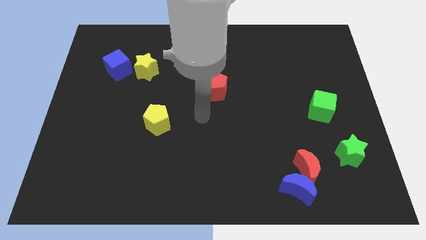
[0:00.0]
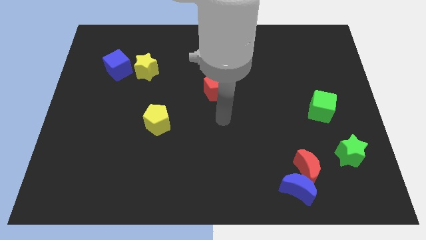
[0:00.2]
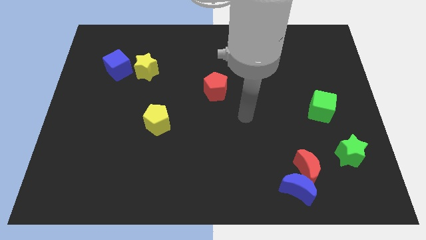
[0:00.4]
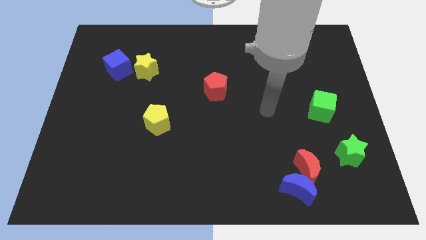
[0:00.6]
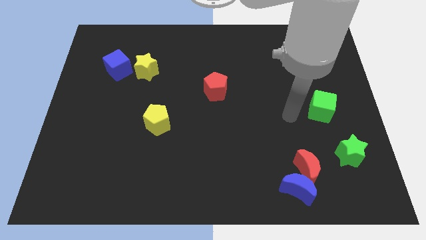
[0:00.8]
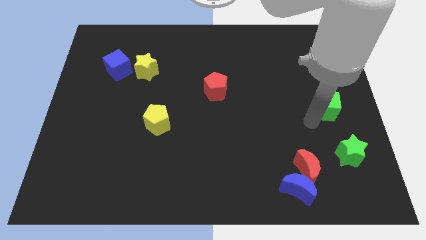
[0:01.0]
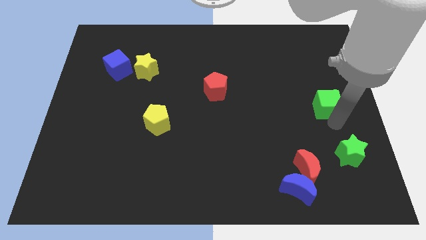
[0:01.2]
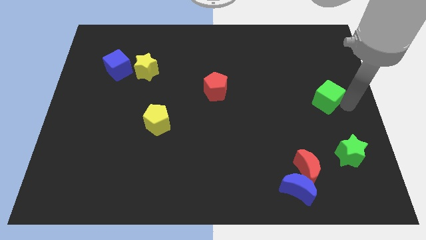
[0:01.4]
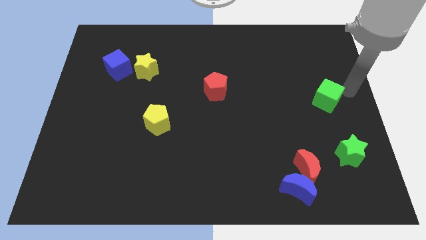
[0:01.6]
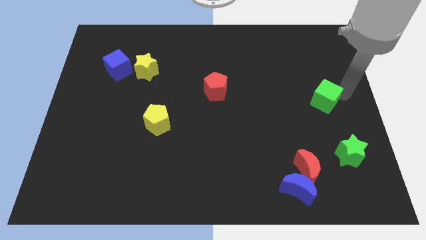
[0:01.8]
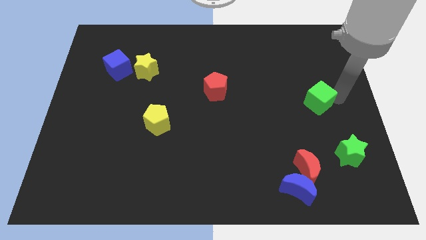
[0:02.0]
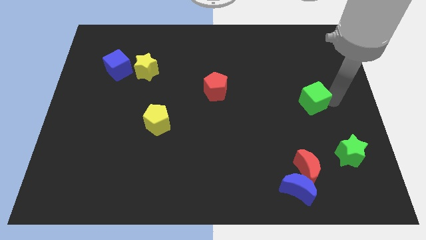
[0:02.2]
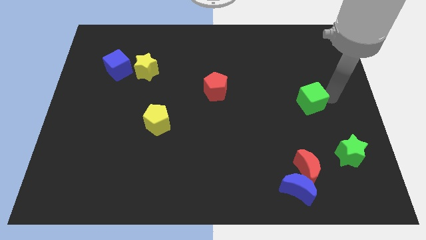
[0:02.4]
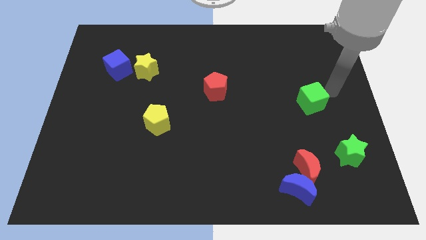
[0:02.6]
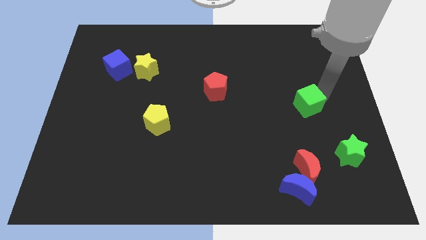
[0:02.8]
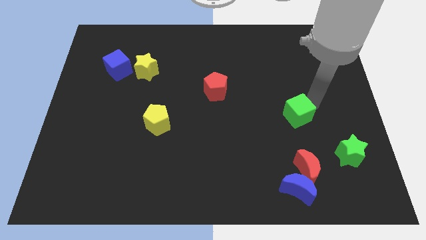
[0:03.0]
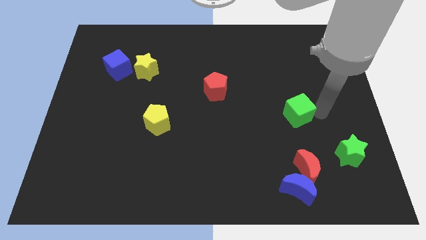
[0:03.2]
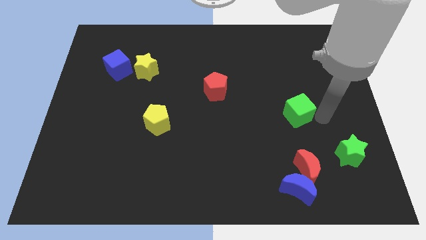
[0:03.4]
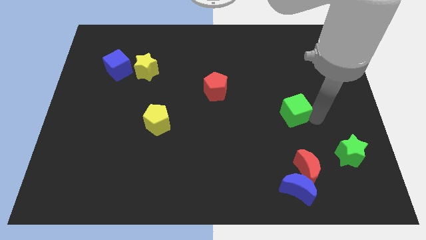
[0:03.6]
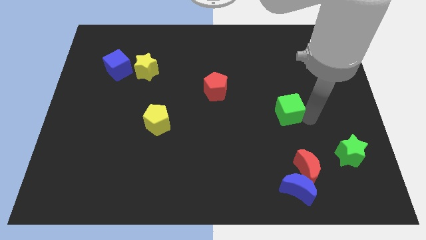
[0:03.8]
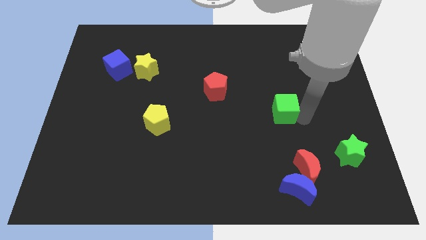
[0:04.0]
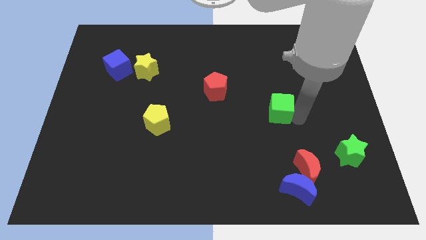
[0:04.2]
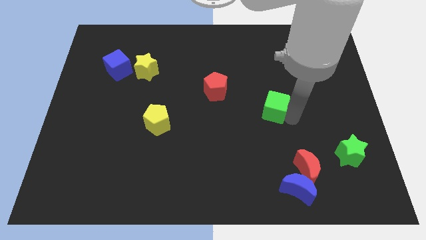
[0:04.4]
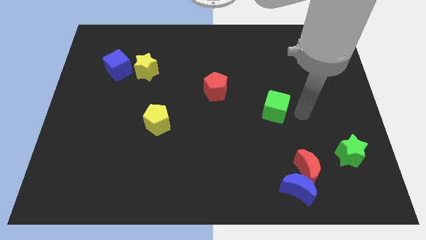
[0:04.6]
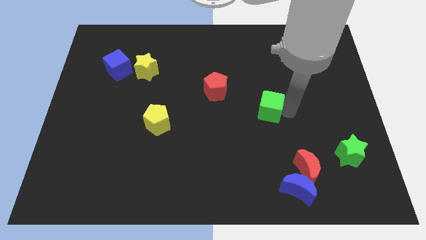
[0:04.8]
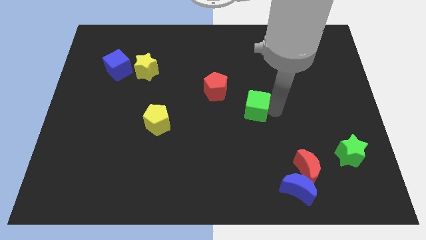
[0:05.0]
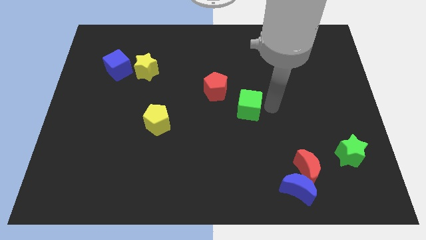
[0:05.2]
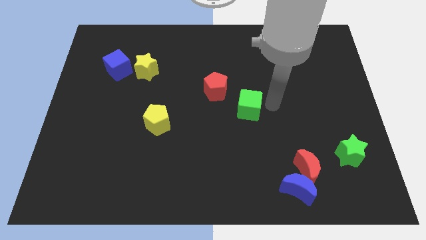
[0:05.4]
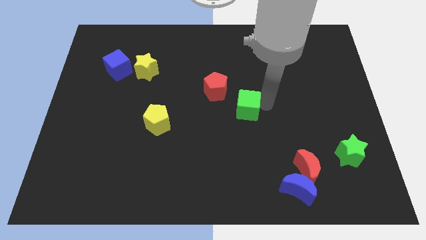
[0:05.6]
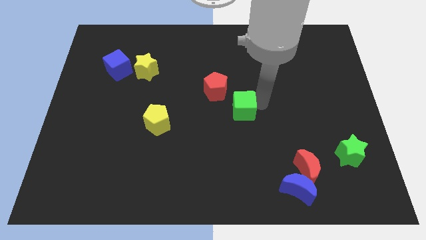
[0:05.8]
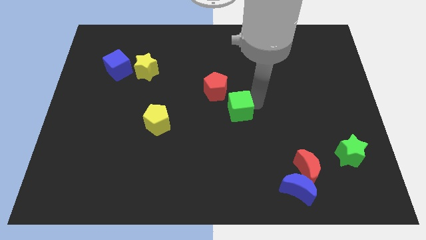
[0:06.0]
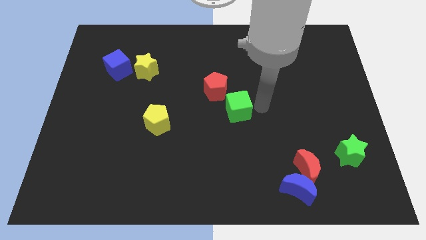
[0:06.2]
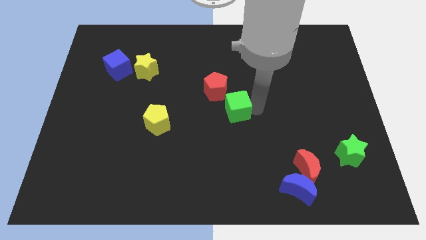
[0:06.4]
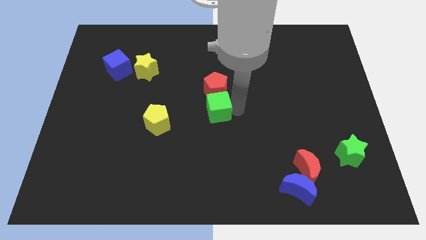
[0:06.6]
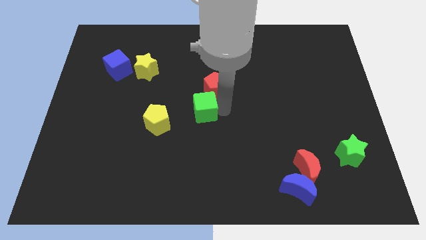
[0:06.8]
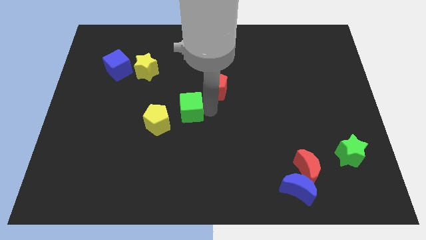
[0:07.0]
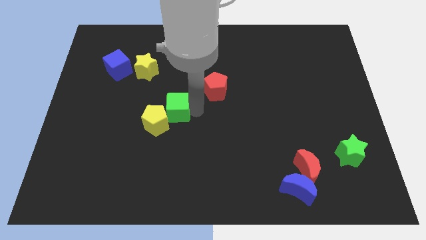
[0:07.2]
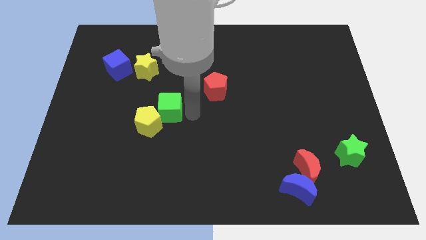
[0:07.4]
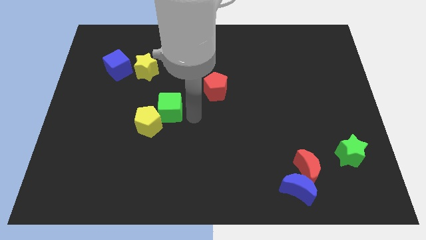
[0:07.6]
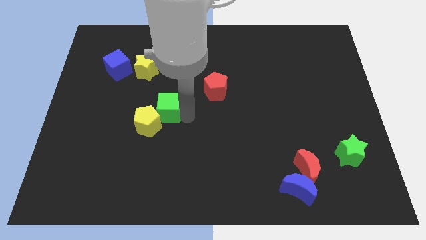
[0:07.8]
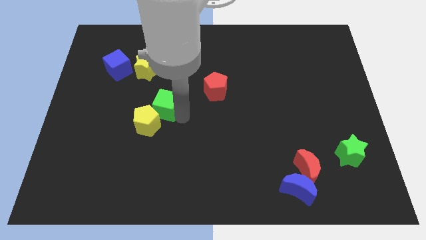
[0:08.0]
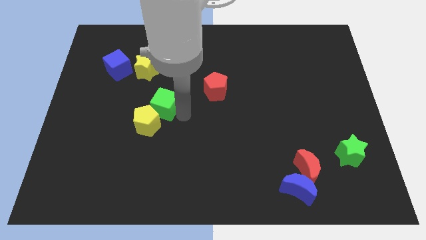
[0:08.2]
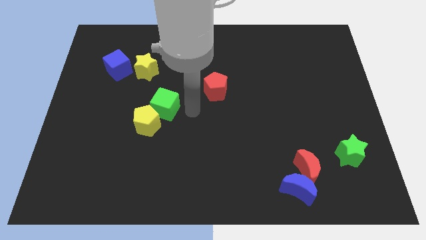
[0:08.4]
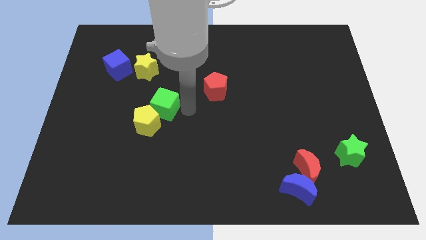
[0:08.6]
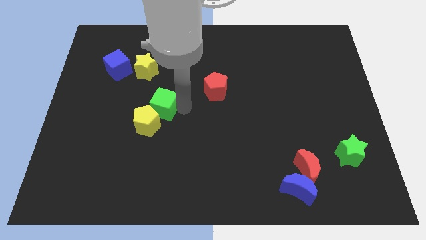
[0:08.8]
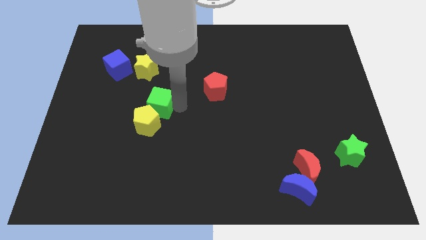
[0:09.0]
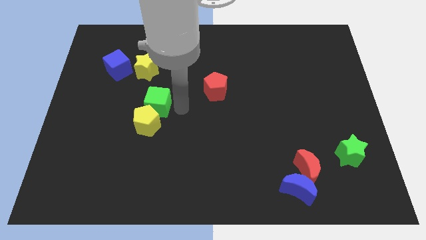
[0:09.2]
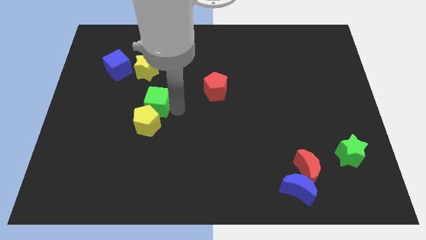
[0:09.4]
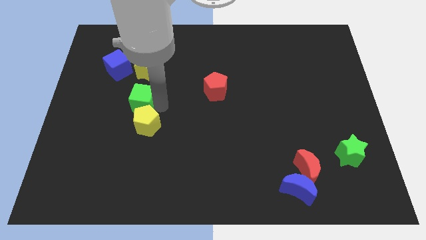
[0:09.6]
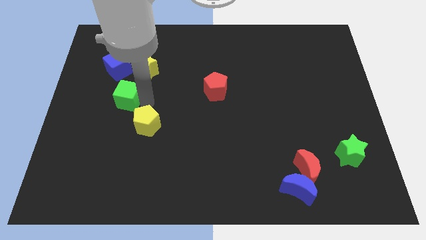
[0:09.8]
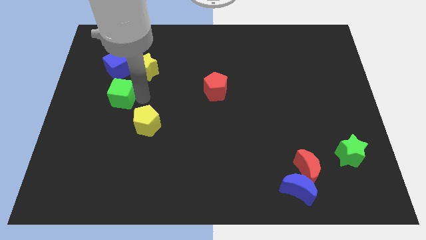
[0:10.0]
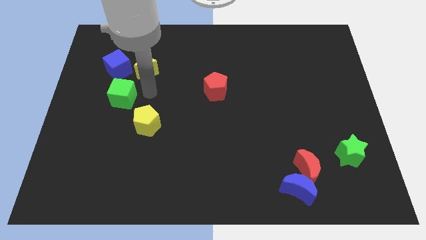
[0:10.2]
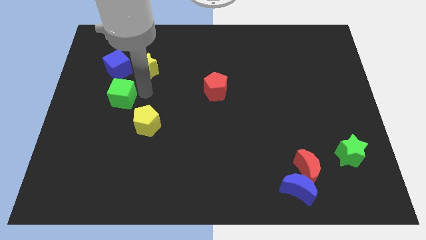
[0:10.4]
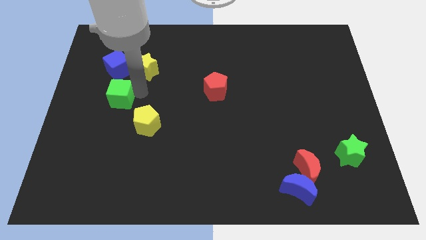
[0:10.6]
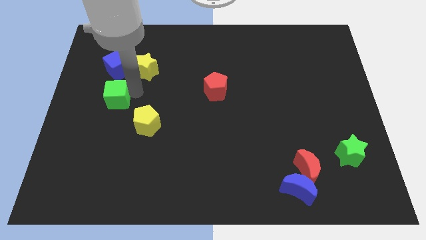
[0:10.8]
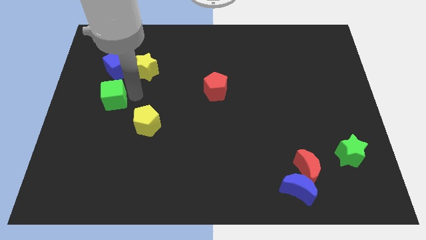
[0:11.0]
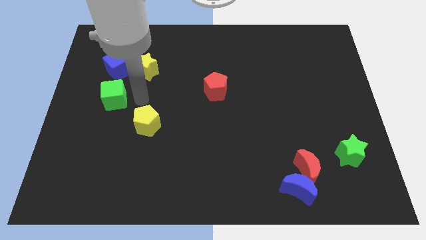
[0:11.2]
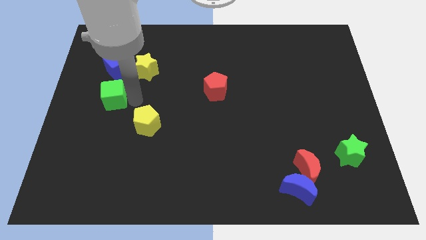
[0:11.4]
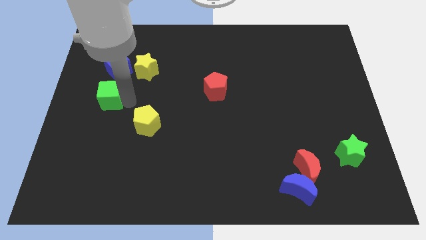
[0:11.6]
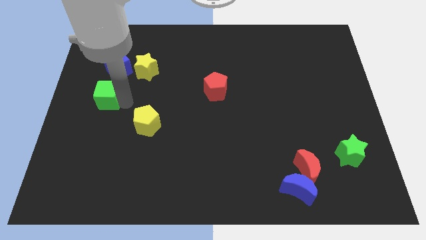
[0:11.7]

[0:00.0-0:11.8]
move the green cube to the left side
